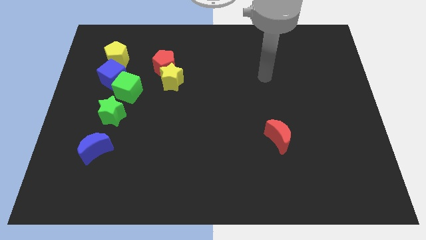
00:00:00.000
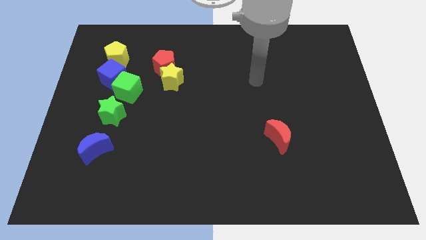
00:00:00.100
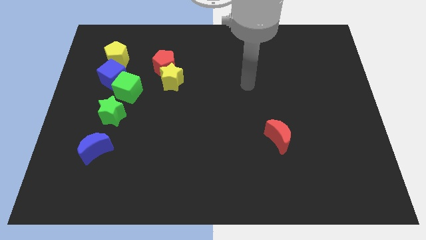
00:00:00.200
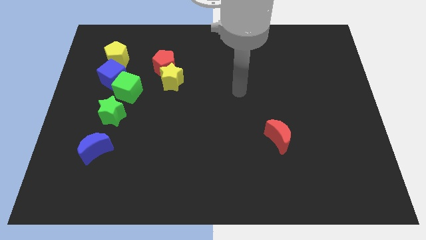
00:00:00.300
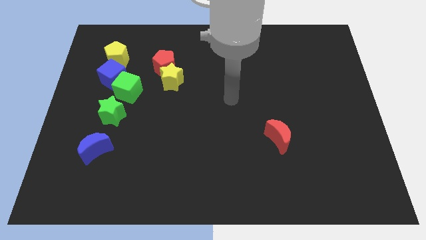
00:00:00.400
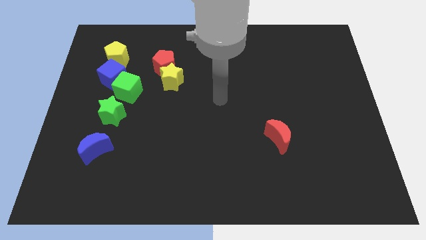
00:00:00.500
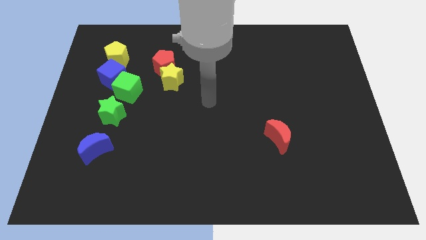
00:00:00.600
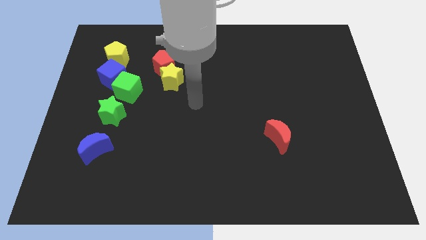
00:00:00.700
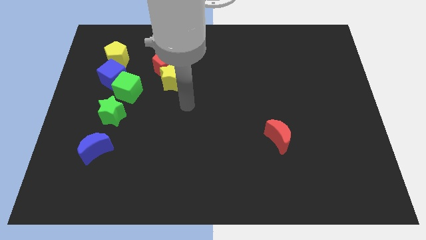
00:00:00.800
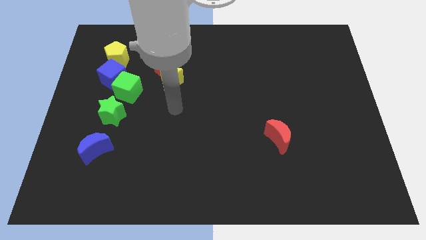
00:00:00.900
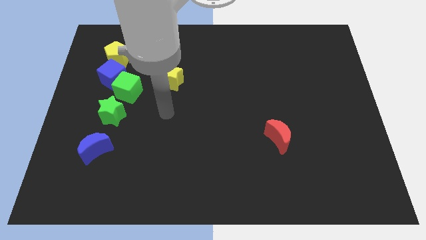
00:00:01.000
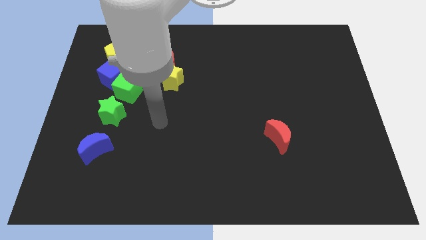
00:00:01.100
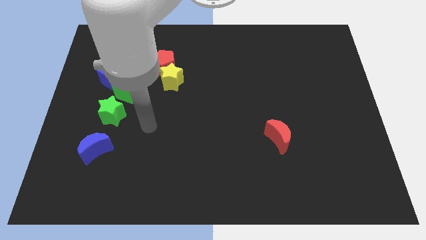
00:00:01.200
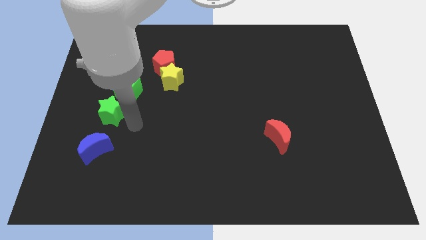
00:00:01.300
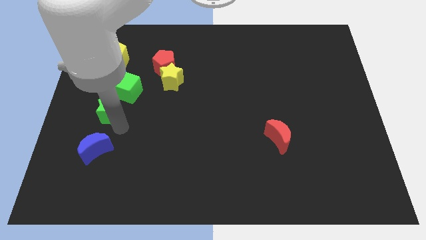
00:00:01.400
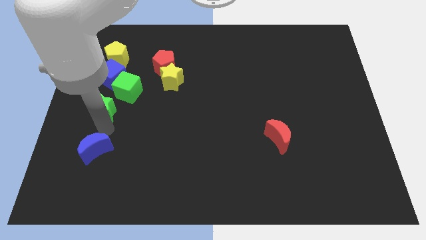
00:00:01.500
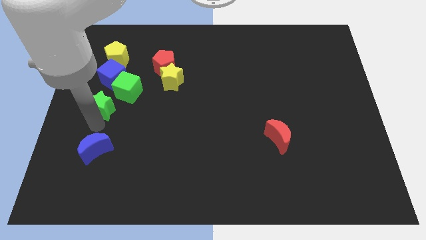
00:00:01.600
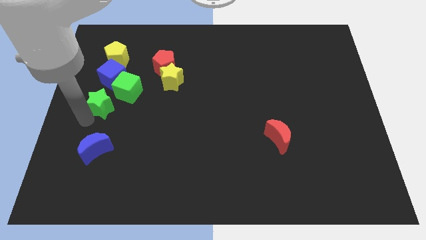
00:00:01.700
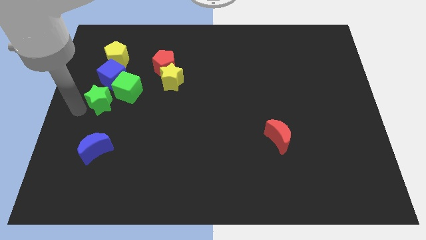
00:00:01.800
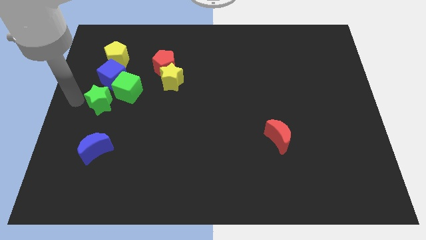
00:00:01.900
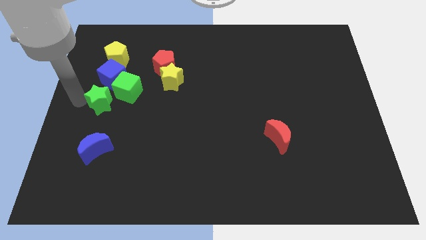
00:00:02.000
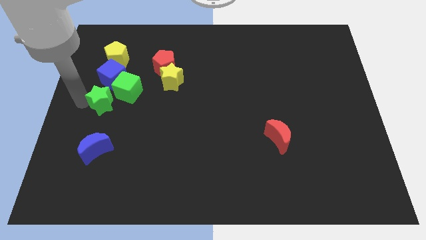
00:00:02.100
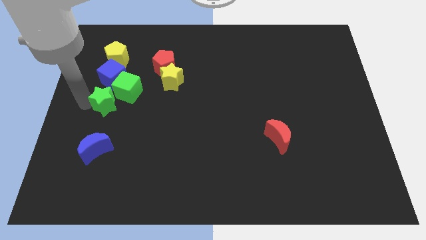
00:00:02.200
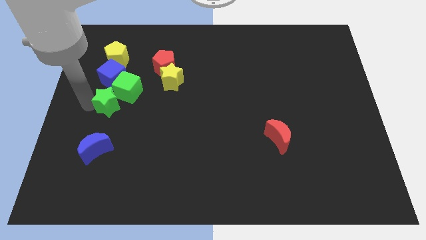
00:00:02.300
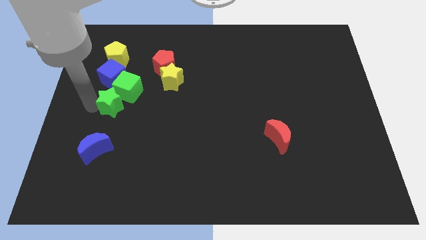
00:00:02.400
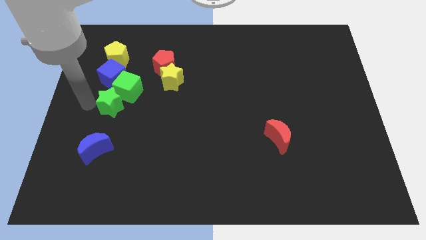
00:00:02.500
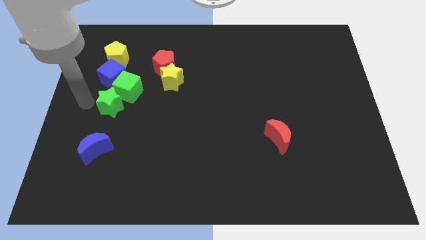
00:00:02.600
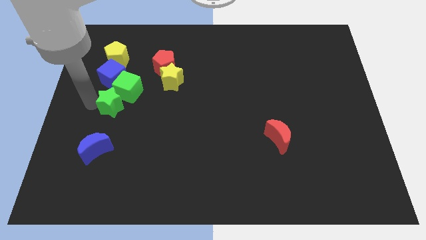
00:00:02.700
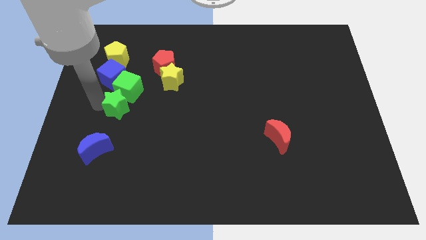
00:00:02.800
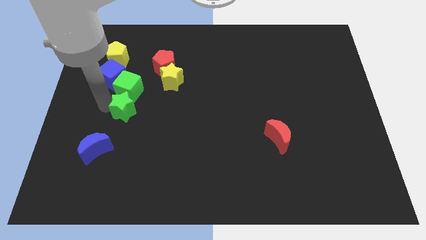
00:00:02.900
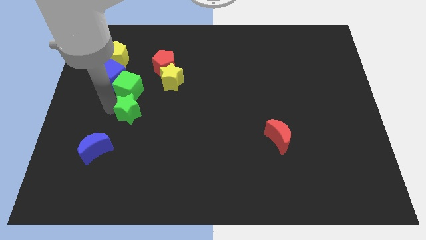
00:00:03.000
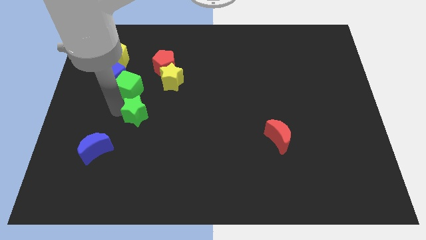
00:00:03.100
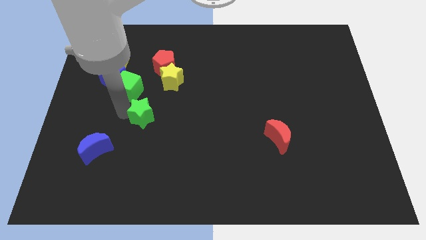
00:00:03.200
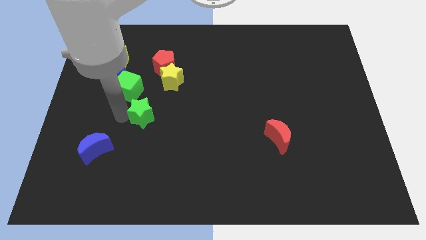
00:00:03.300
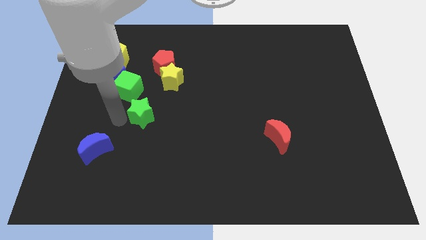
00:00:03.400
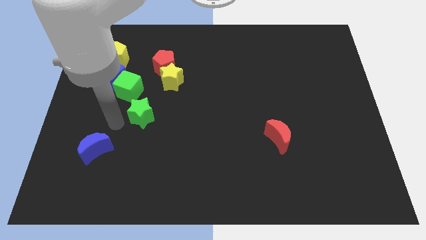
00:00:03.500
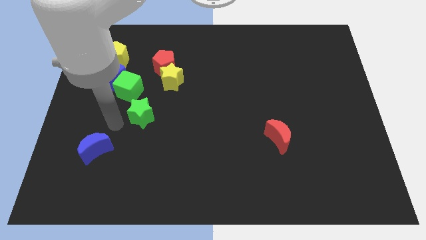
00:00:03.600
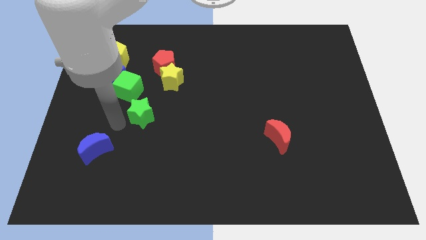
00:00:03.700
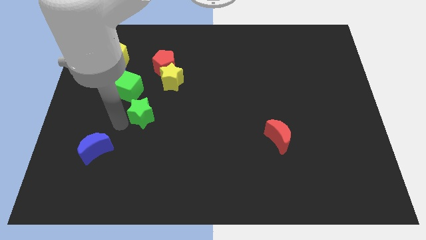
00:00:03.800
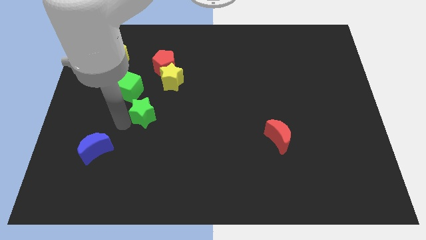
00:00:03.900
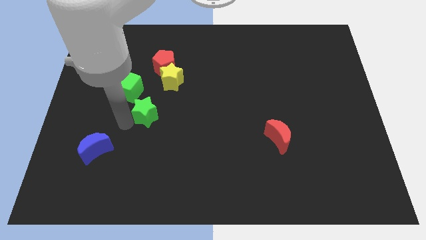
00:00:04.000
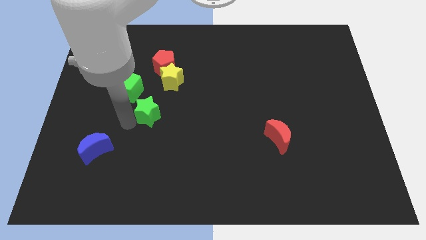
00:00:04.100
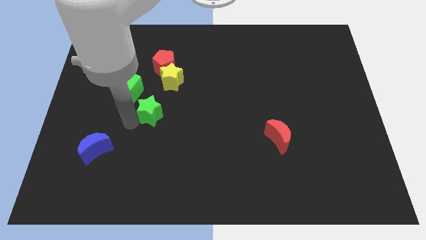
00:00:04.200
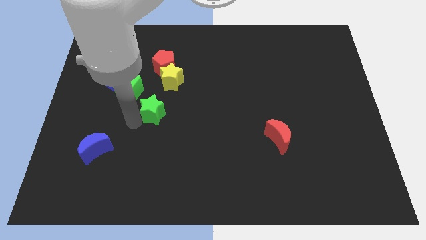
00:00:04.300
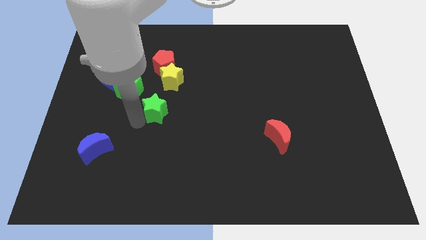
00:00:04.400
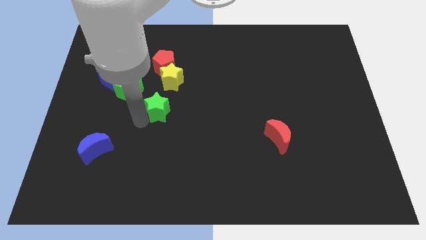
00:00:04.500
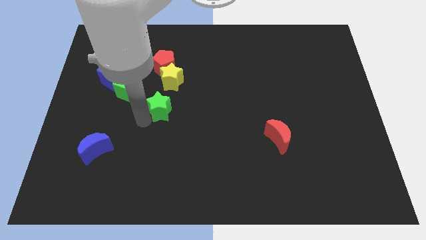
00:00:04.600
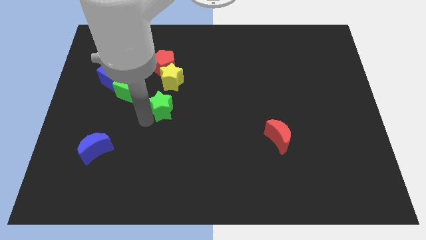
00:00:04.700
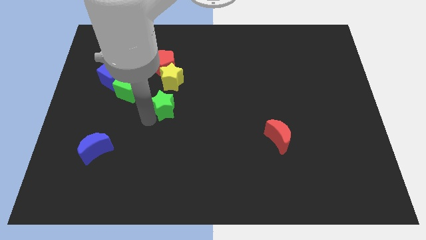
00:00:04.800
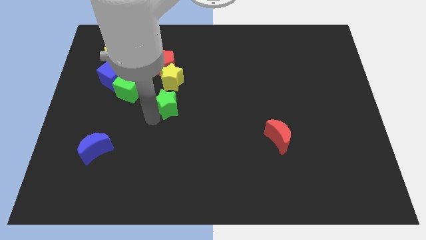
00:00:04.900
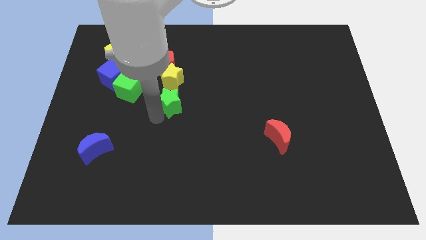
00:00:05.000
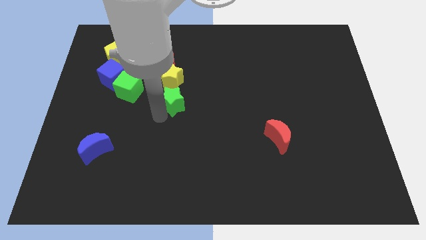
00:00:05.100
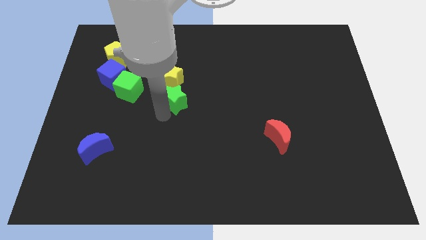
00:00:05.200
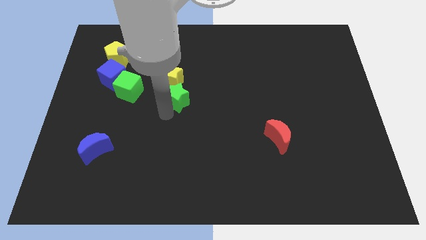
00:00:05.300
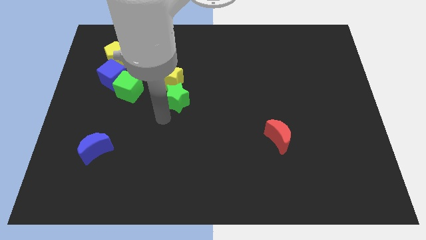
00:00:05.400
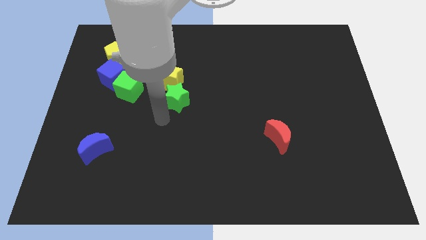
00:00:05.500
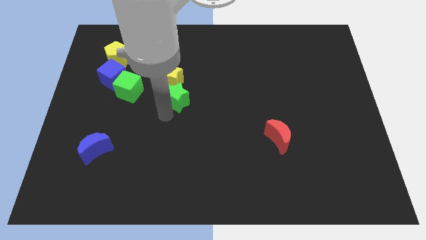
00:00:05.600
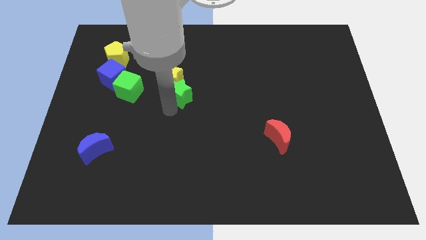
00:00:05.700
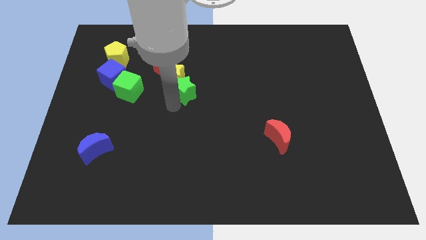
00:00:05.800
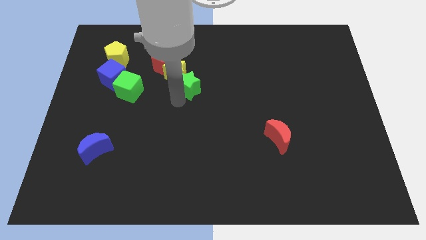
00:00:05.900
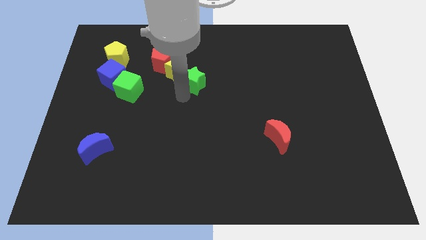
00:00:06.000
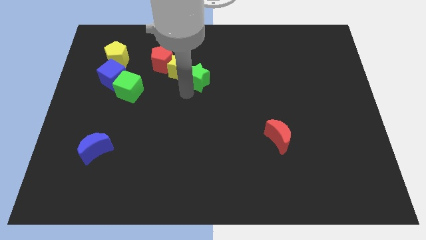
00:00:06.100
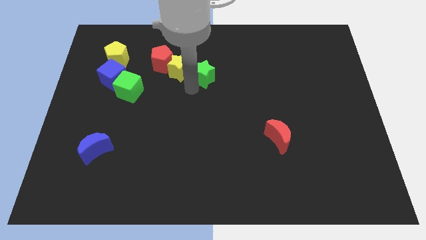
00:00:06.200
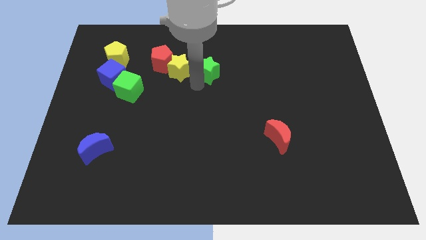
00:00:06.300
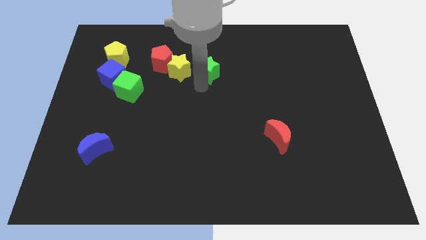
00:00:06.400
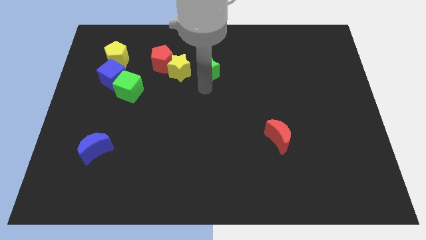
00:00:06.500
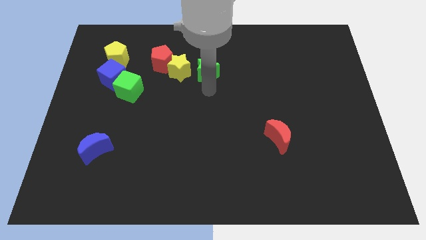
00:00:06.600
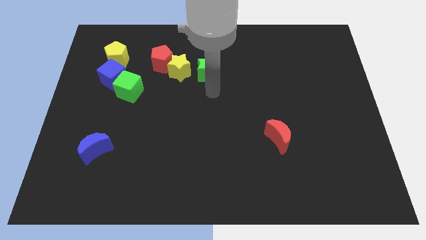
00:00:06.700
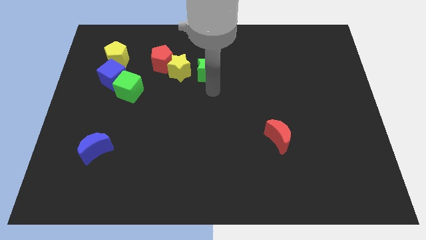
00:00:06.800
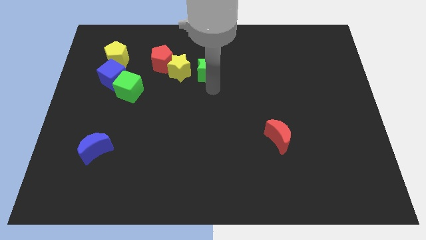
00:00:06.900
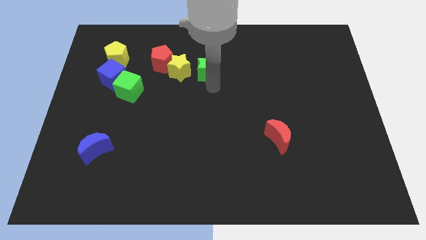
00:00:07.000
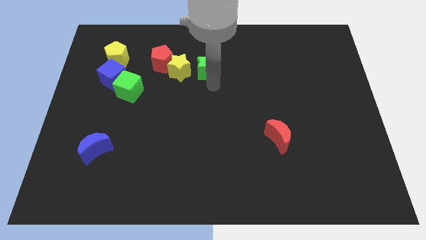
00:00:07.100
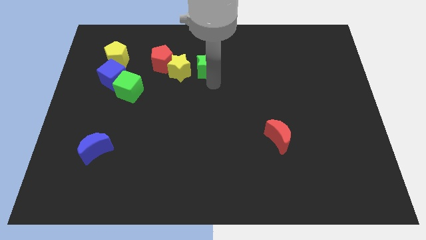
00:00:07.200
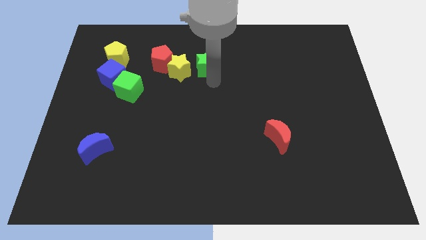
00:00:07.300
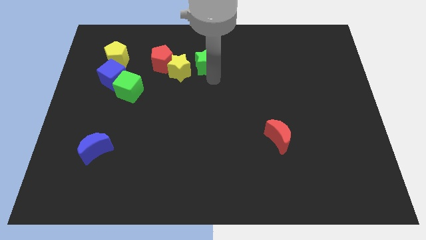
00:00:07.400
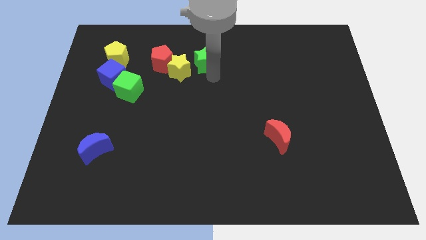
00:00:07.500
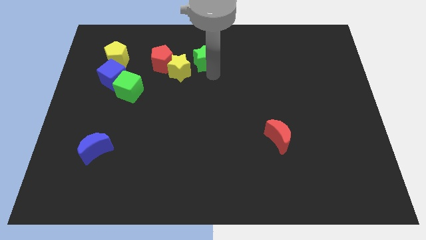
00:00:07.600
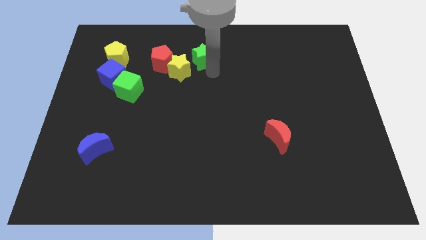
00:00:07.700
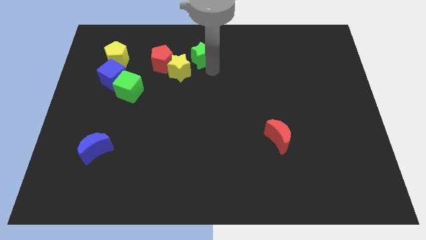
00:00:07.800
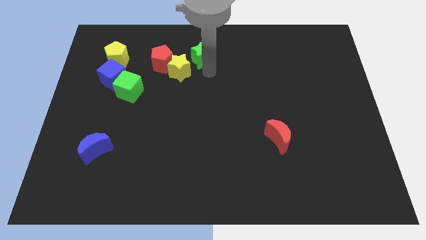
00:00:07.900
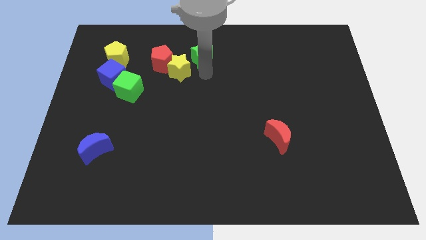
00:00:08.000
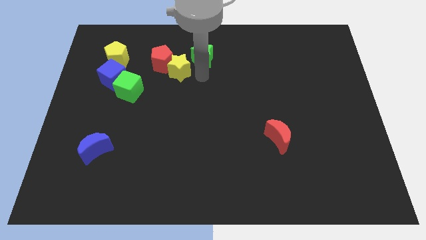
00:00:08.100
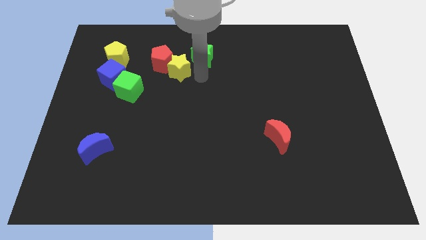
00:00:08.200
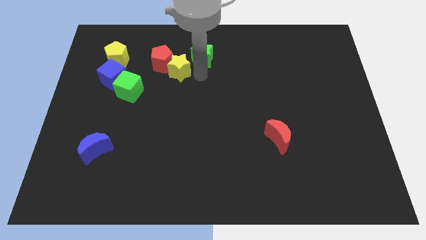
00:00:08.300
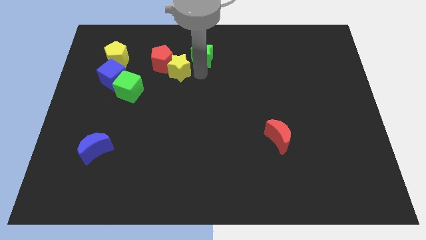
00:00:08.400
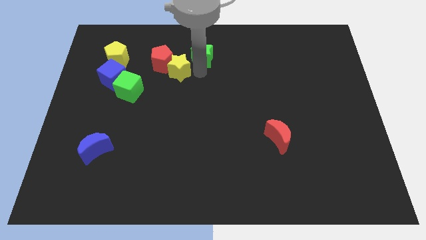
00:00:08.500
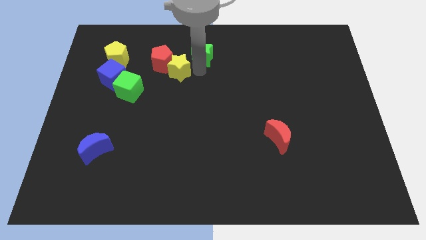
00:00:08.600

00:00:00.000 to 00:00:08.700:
push the green star to the top side
